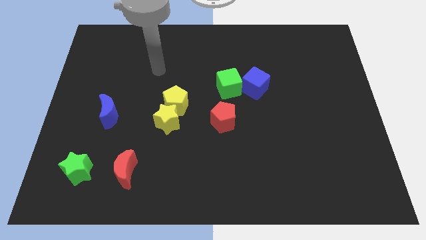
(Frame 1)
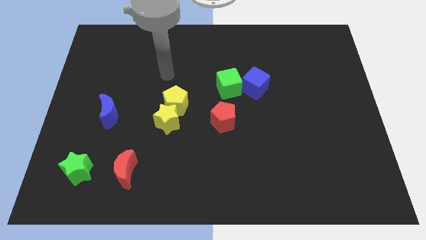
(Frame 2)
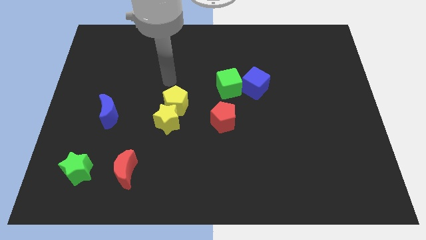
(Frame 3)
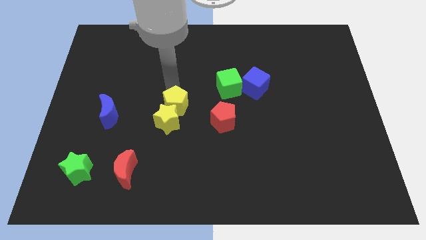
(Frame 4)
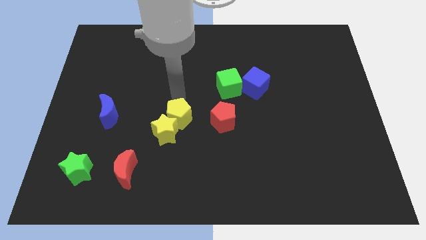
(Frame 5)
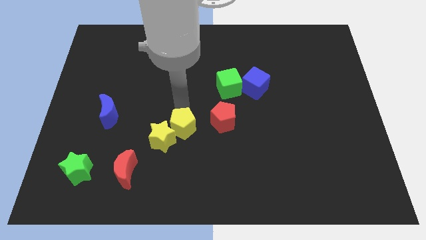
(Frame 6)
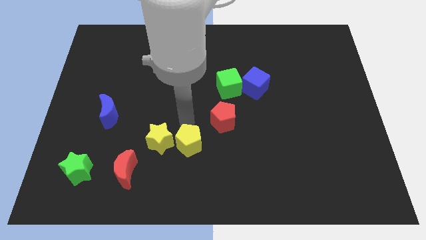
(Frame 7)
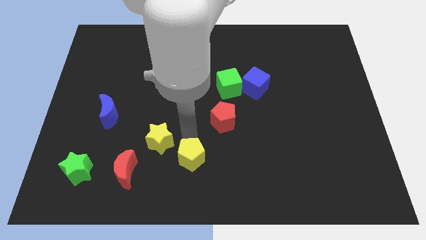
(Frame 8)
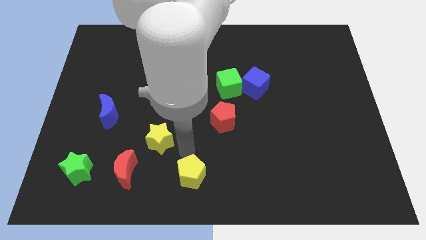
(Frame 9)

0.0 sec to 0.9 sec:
move the yellow star away from the yellow pentagon

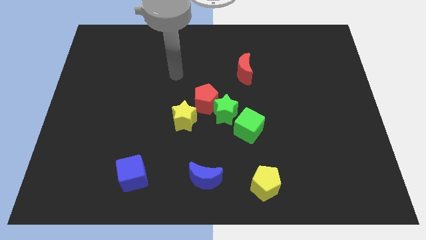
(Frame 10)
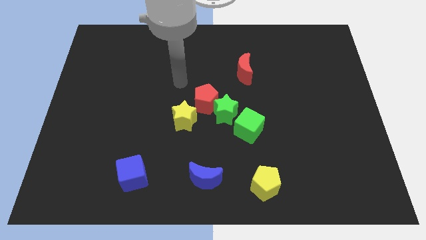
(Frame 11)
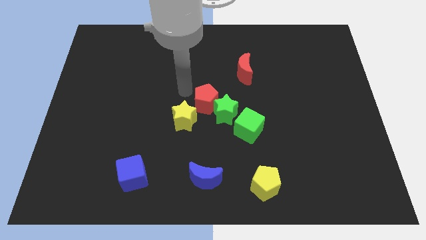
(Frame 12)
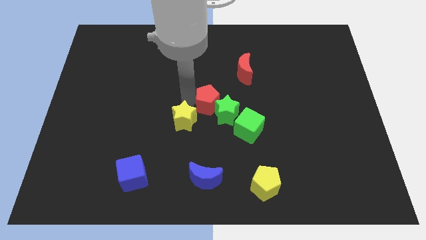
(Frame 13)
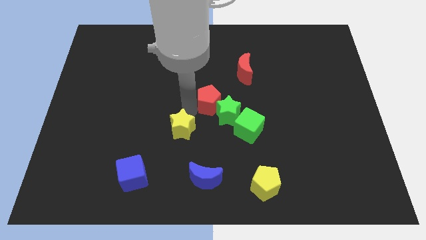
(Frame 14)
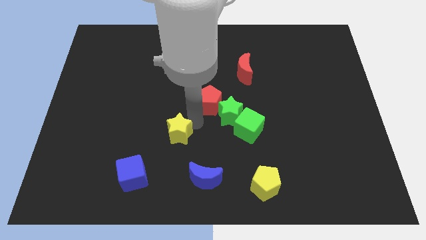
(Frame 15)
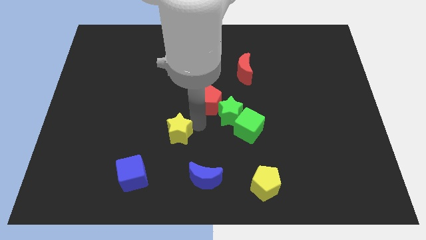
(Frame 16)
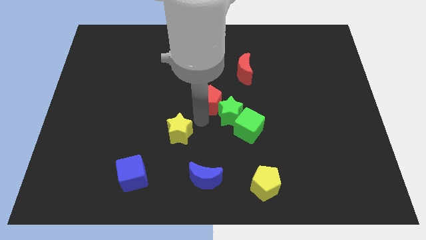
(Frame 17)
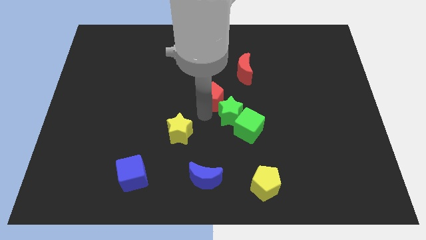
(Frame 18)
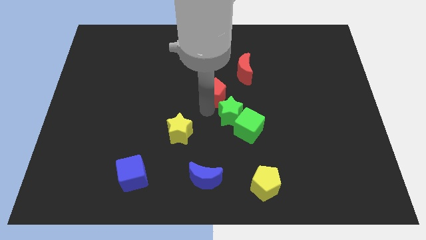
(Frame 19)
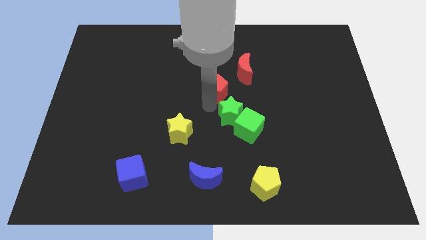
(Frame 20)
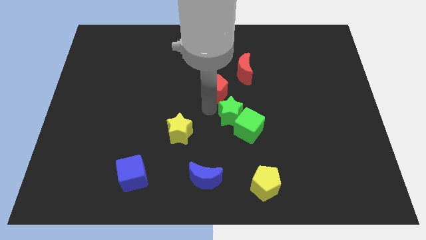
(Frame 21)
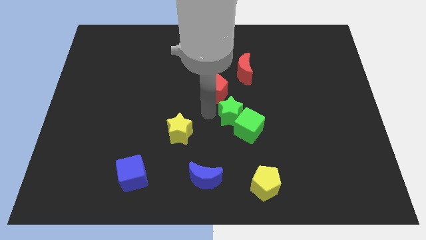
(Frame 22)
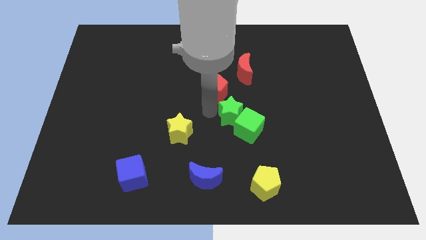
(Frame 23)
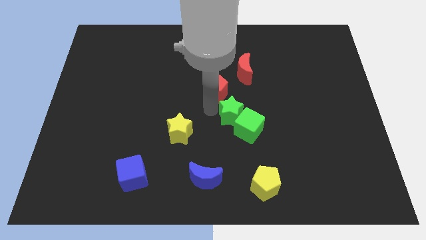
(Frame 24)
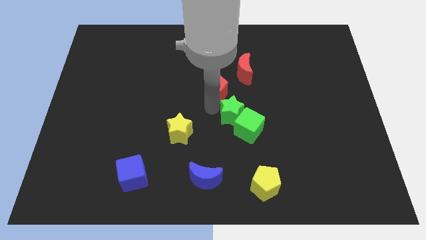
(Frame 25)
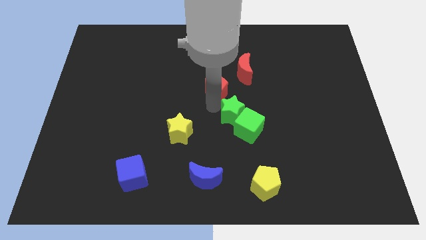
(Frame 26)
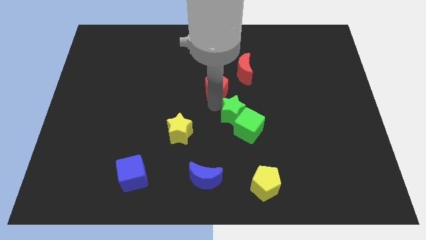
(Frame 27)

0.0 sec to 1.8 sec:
pull the red pentagon apart from the green star and yellow star

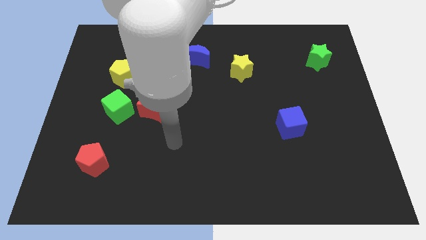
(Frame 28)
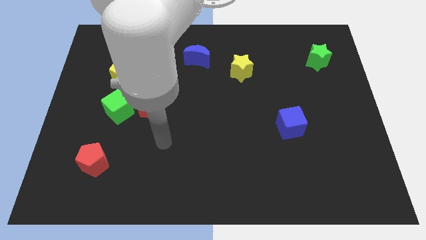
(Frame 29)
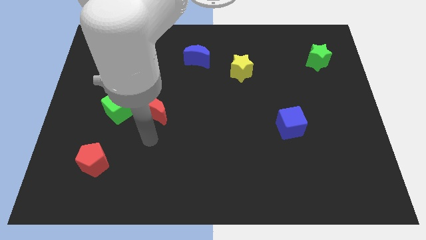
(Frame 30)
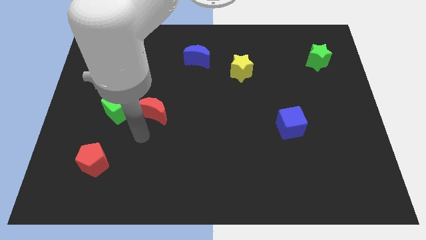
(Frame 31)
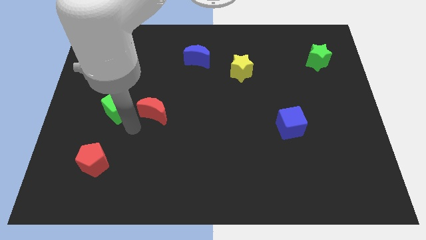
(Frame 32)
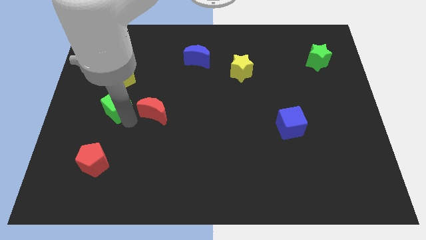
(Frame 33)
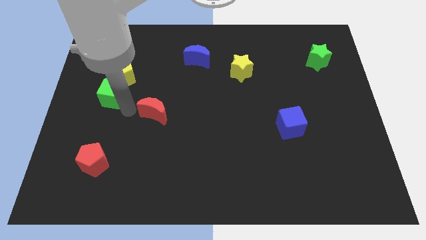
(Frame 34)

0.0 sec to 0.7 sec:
pull the red moon apart from the green cube

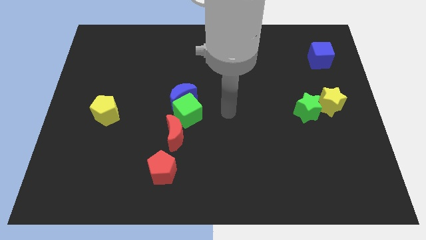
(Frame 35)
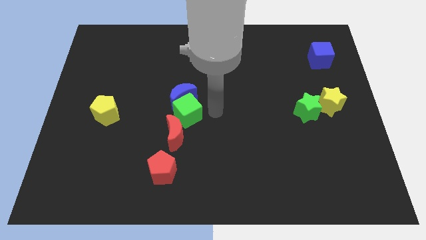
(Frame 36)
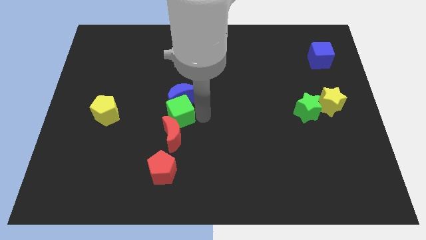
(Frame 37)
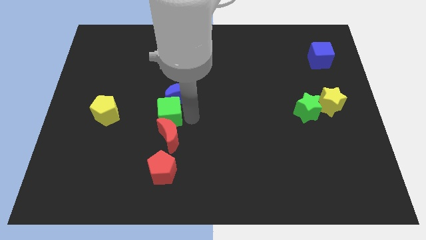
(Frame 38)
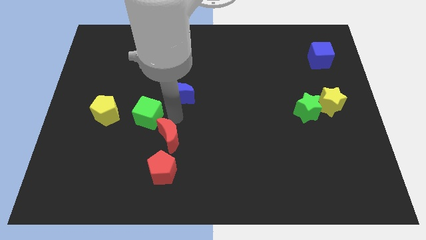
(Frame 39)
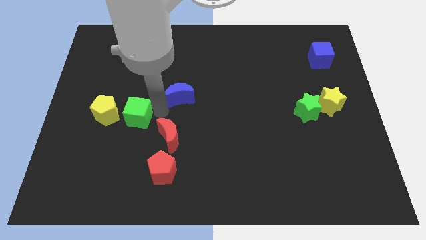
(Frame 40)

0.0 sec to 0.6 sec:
pull the blue moon apart from the green cube

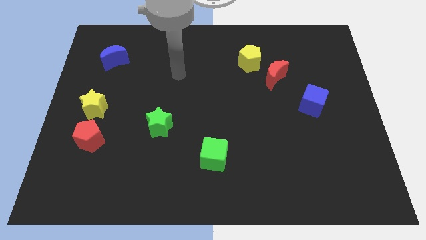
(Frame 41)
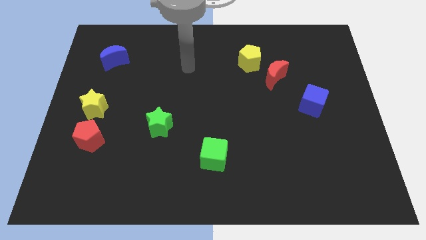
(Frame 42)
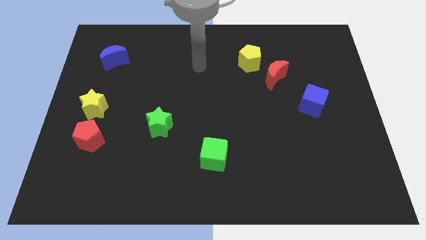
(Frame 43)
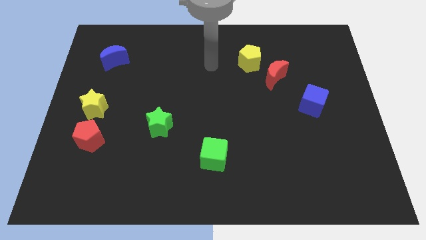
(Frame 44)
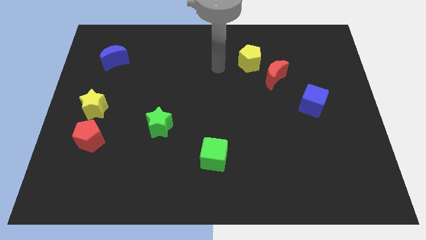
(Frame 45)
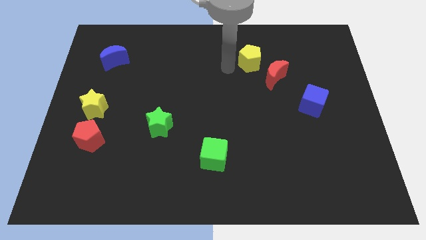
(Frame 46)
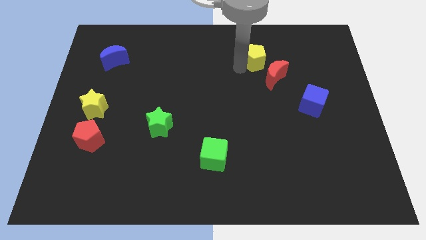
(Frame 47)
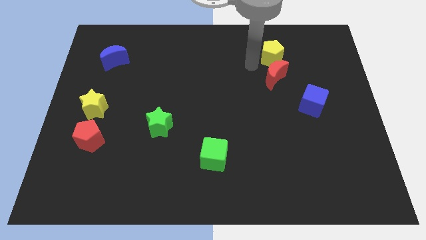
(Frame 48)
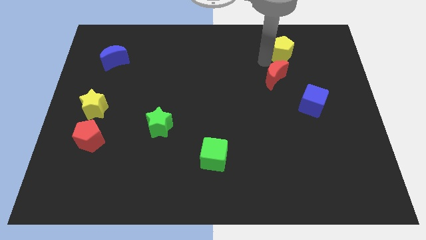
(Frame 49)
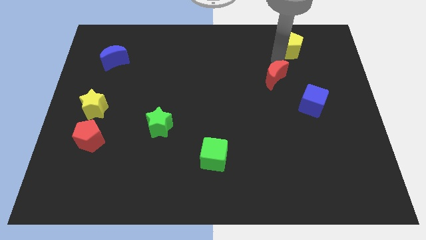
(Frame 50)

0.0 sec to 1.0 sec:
move the red moon away from the yellow pentagon

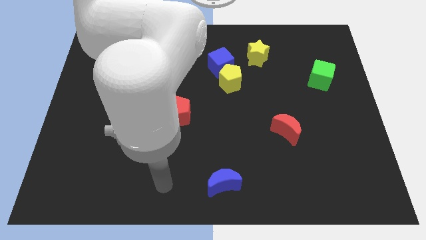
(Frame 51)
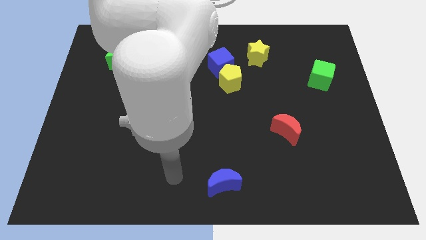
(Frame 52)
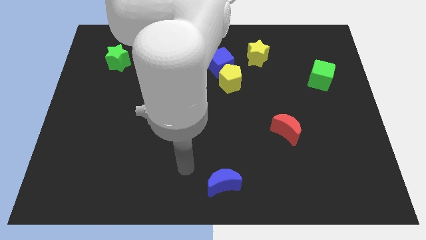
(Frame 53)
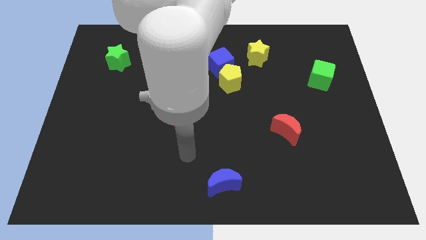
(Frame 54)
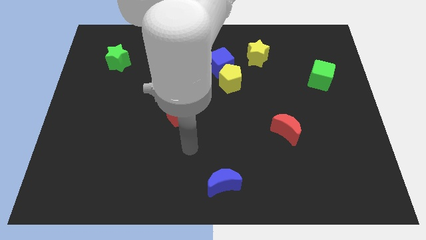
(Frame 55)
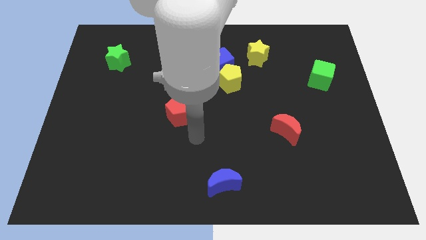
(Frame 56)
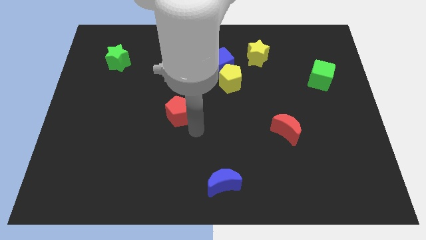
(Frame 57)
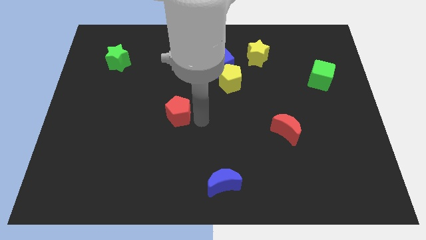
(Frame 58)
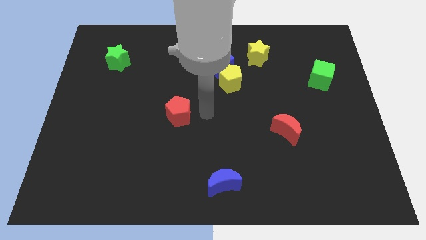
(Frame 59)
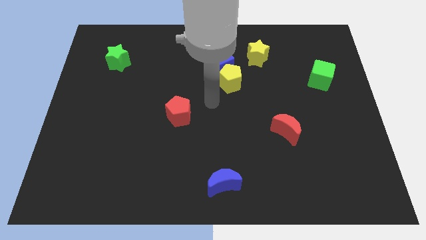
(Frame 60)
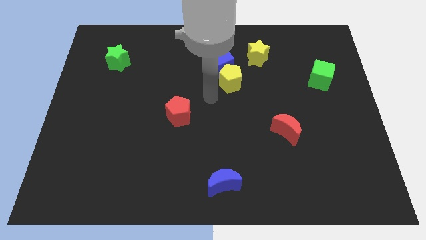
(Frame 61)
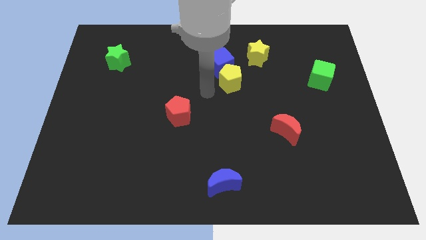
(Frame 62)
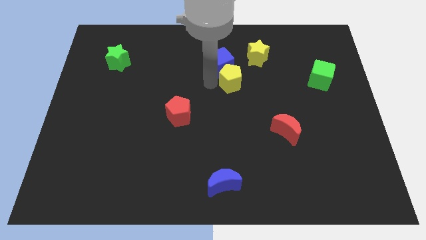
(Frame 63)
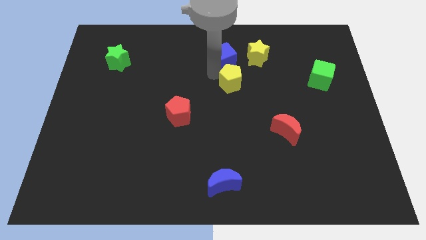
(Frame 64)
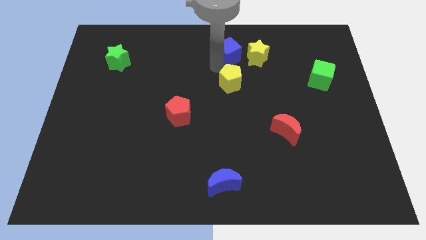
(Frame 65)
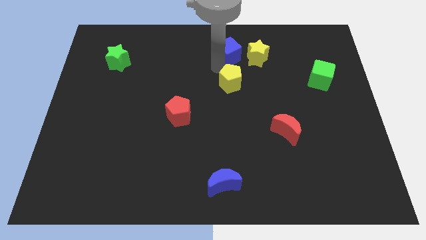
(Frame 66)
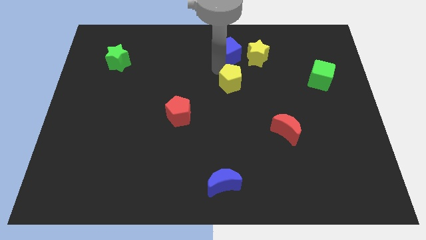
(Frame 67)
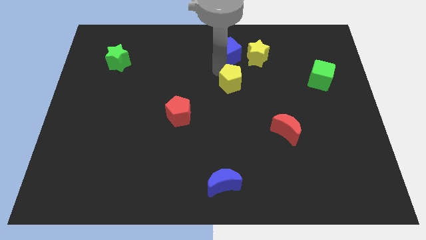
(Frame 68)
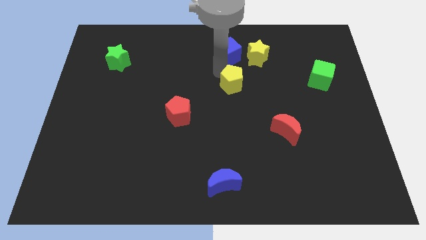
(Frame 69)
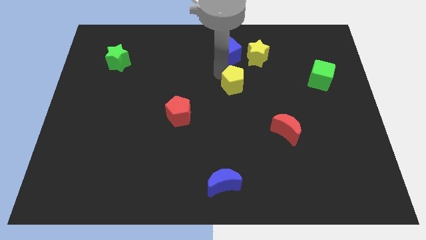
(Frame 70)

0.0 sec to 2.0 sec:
separate the yellow pentagon from the blue cube

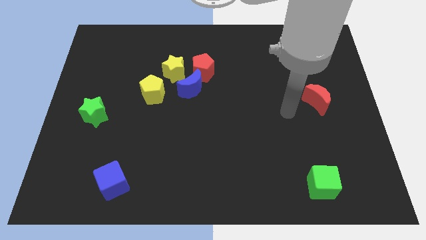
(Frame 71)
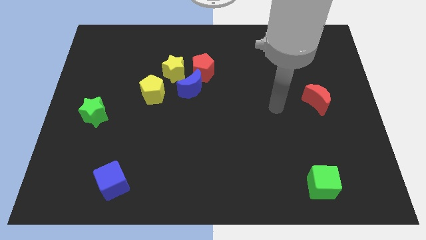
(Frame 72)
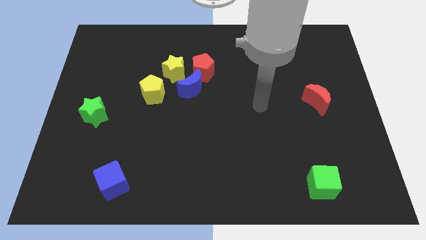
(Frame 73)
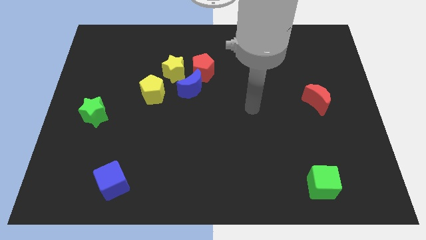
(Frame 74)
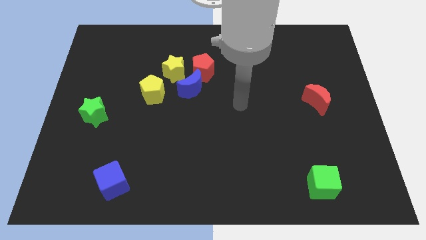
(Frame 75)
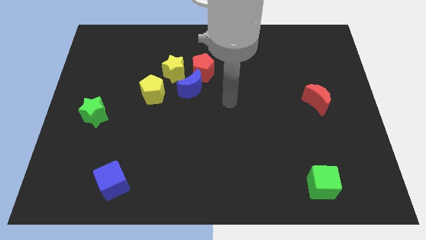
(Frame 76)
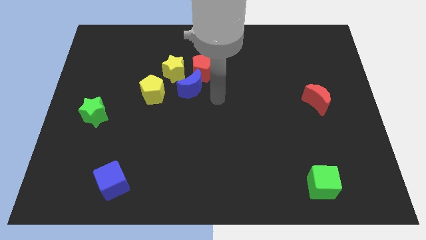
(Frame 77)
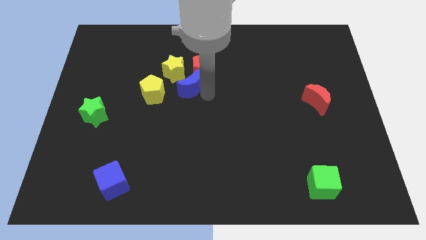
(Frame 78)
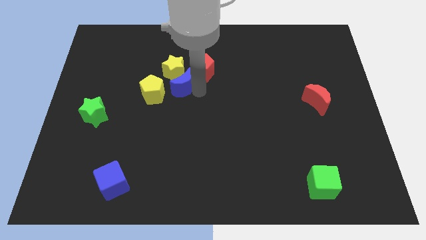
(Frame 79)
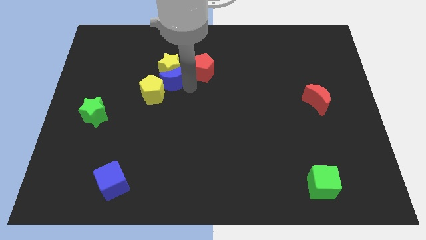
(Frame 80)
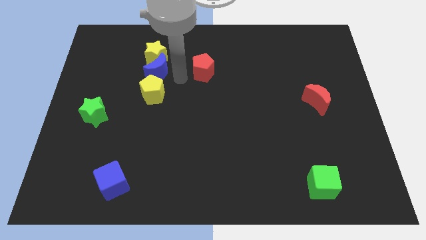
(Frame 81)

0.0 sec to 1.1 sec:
pull the red pentagon apart from the blue moon and yellow star

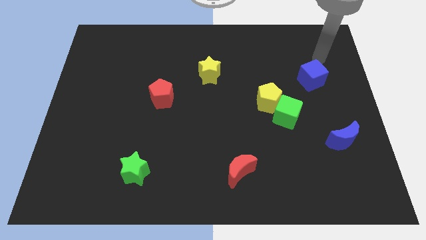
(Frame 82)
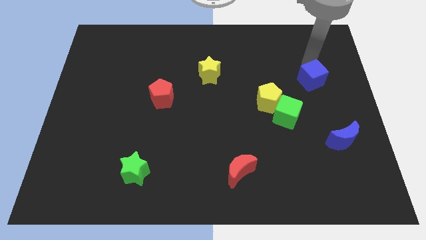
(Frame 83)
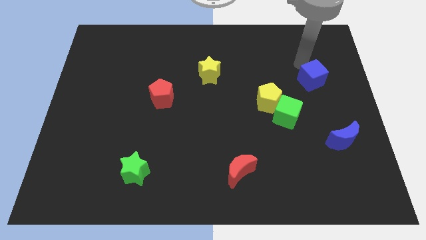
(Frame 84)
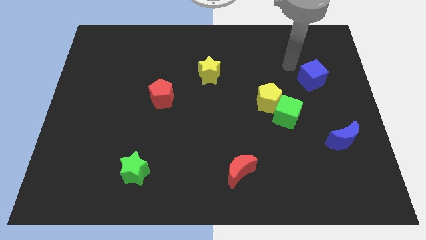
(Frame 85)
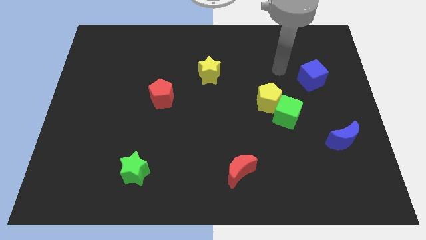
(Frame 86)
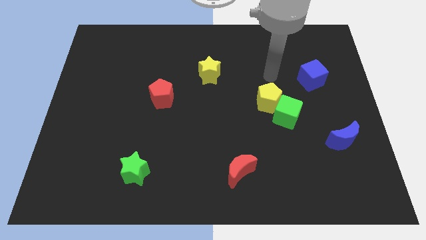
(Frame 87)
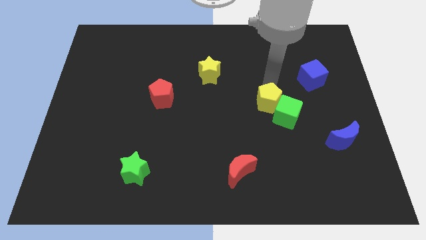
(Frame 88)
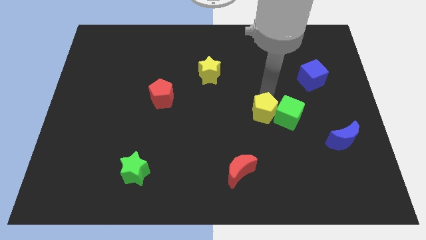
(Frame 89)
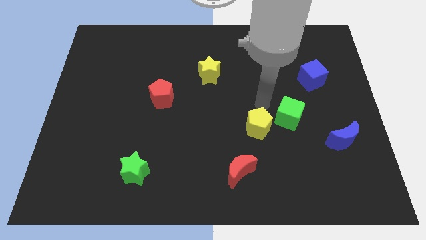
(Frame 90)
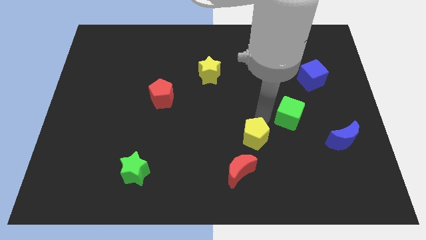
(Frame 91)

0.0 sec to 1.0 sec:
move the green cube away from the yellow pentagon

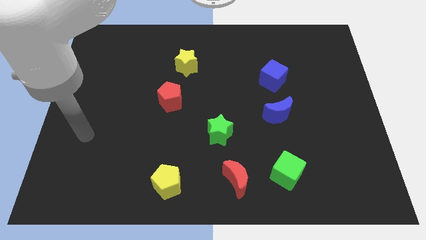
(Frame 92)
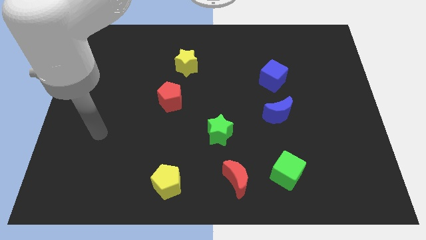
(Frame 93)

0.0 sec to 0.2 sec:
separate the red moon from the green cube
